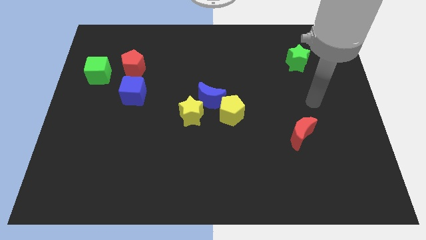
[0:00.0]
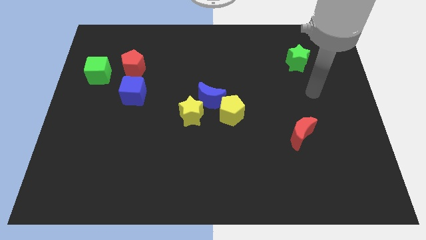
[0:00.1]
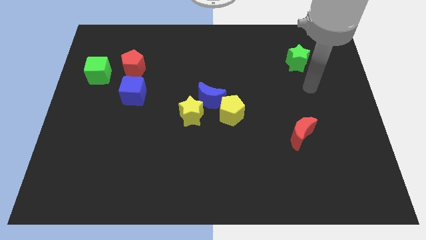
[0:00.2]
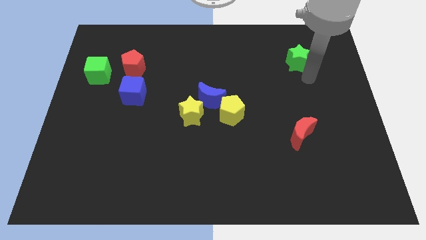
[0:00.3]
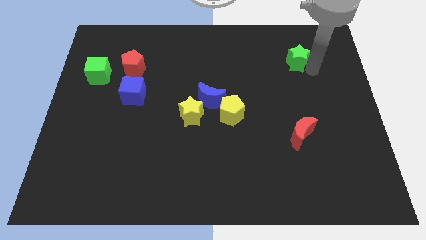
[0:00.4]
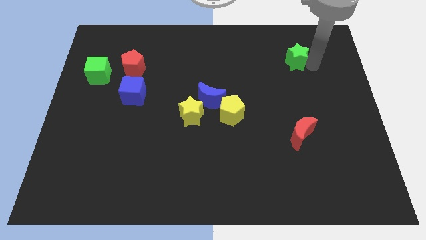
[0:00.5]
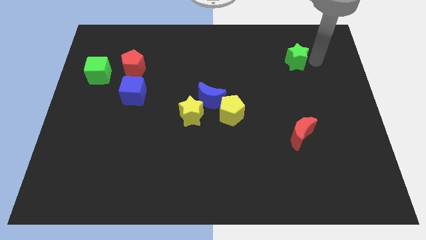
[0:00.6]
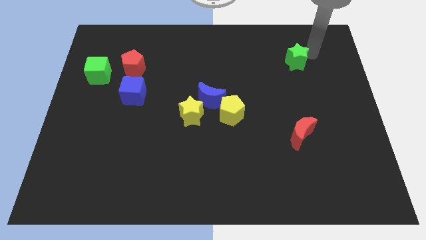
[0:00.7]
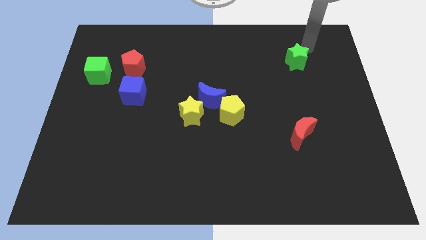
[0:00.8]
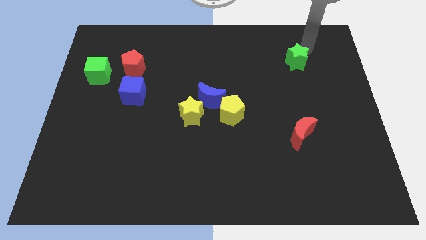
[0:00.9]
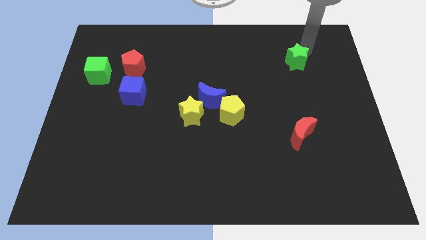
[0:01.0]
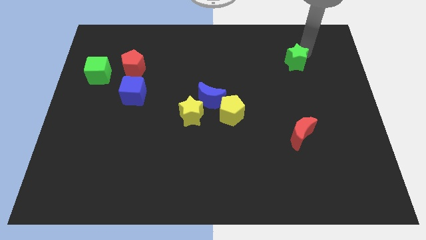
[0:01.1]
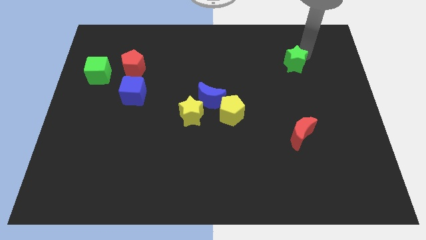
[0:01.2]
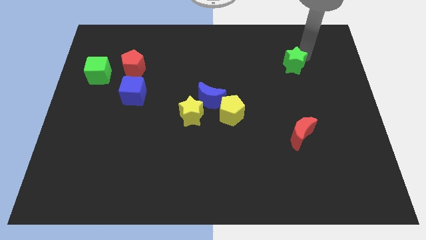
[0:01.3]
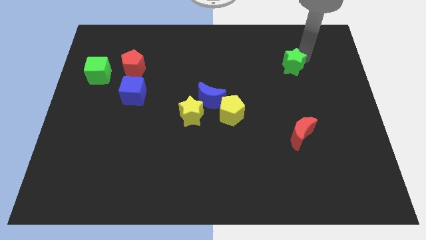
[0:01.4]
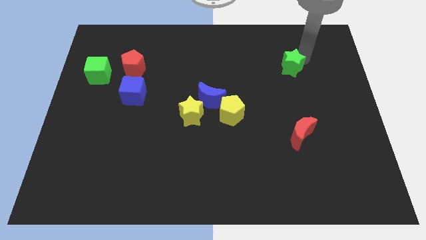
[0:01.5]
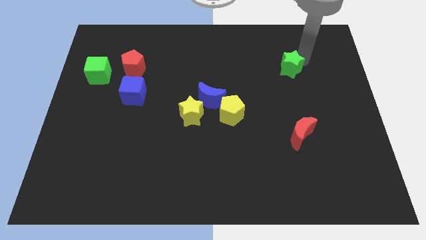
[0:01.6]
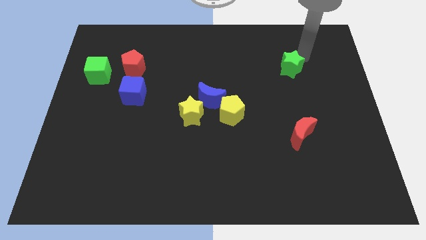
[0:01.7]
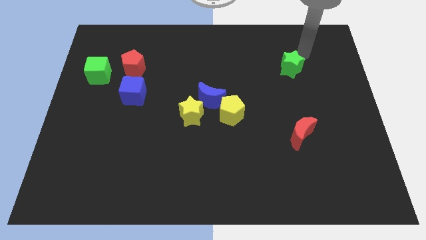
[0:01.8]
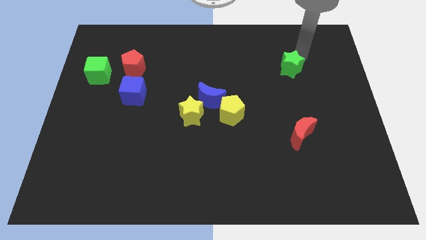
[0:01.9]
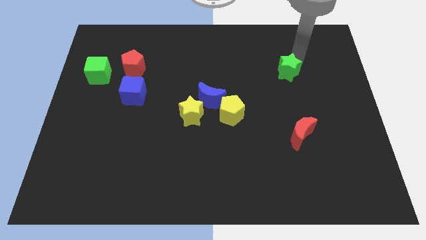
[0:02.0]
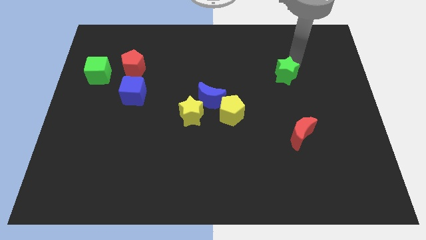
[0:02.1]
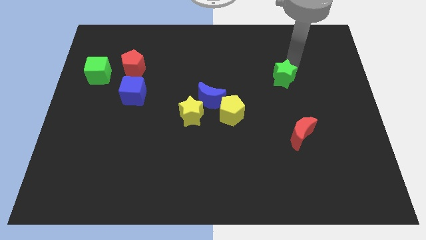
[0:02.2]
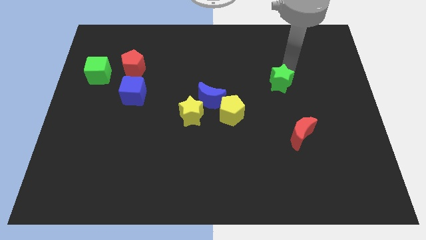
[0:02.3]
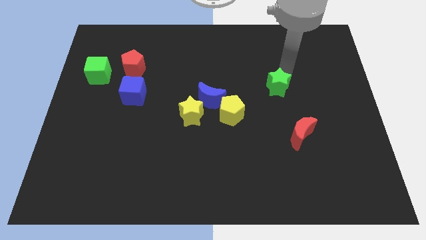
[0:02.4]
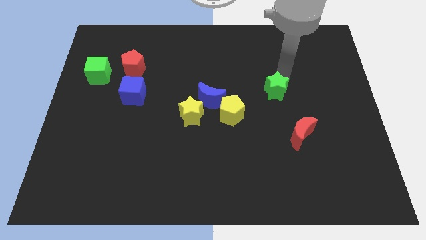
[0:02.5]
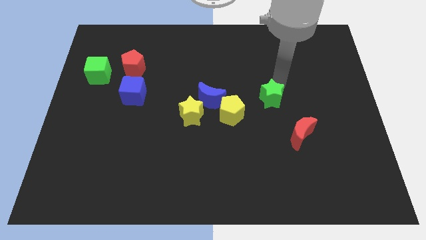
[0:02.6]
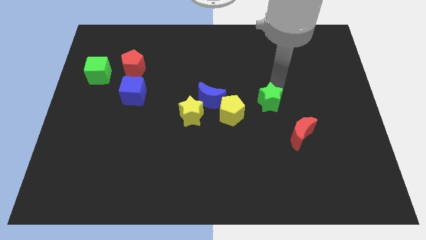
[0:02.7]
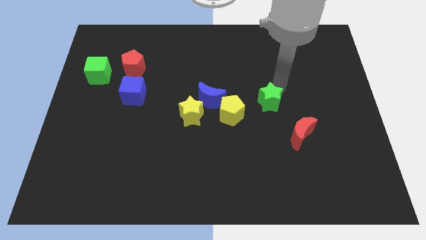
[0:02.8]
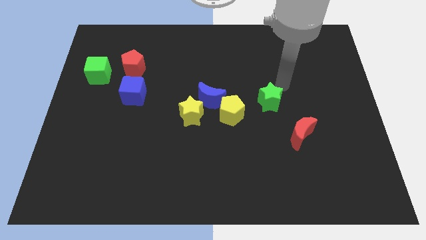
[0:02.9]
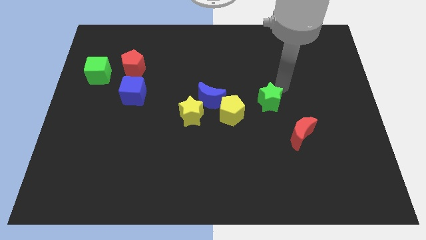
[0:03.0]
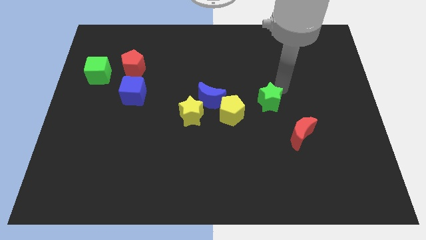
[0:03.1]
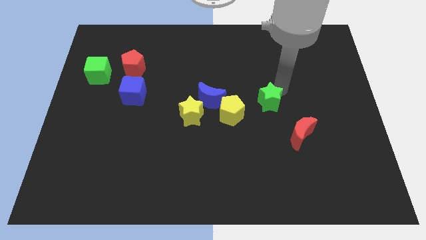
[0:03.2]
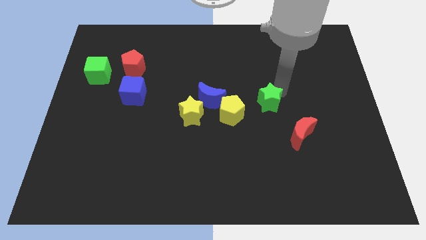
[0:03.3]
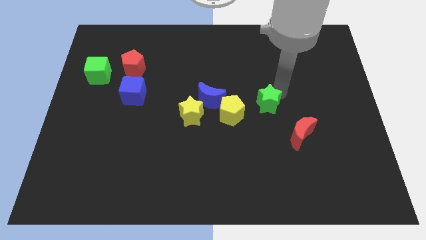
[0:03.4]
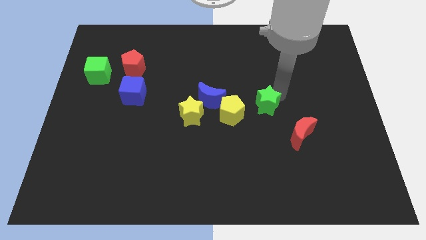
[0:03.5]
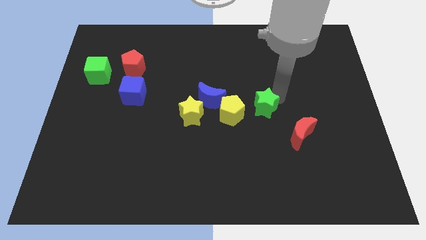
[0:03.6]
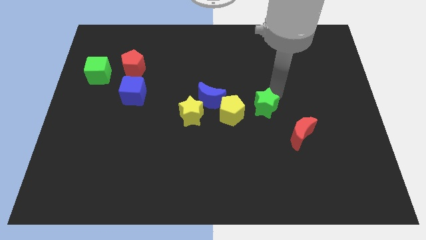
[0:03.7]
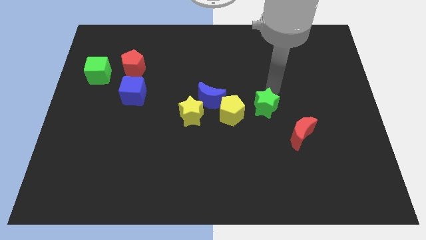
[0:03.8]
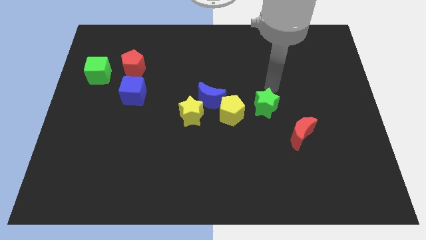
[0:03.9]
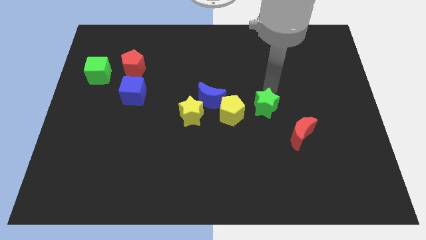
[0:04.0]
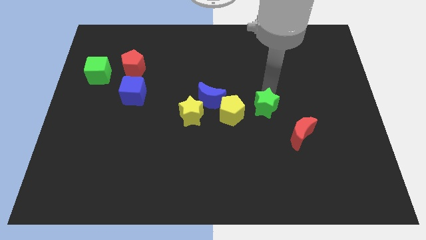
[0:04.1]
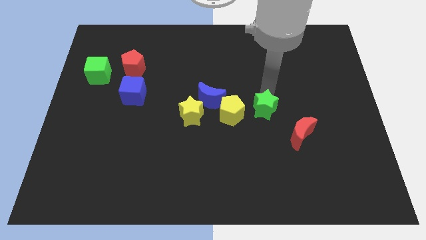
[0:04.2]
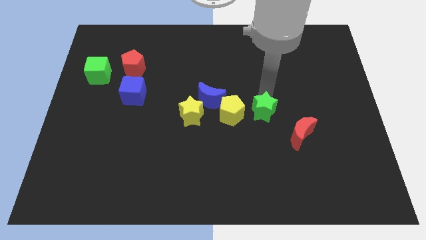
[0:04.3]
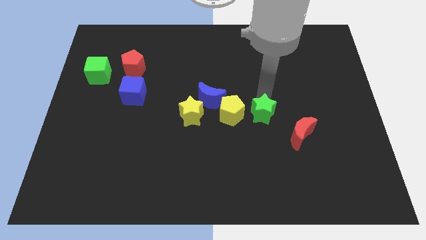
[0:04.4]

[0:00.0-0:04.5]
put the green star to the bottom right side of the yellow pentagon

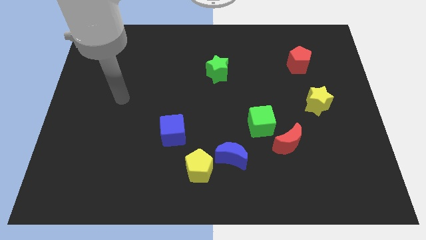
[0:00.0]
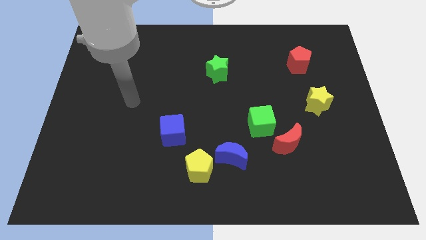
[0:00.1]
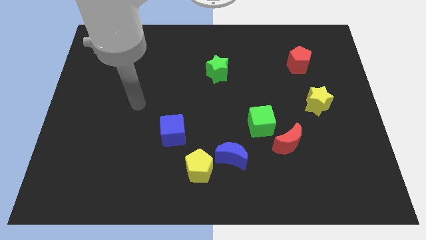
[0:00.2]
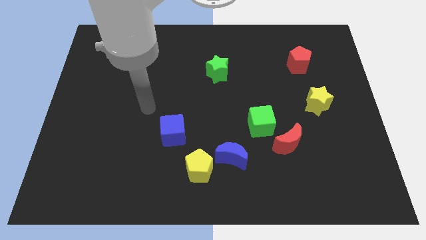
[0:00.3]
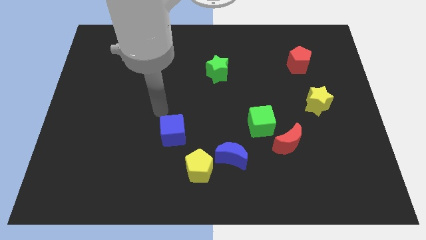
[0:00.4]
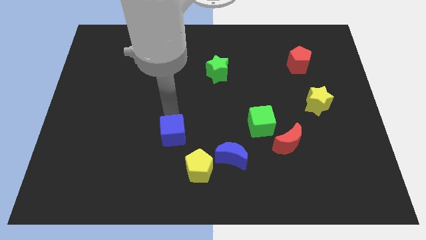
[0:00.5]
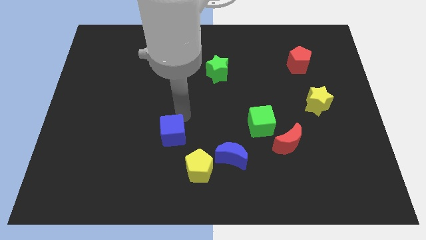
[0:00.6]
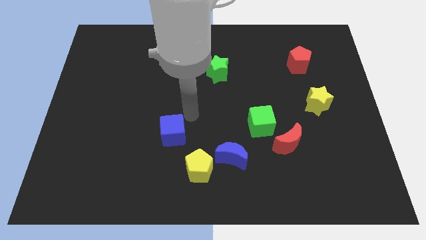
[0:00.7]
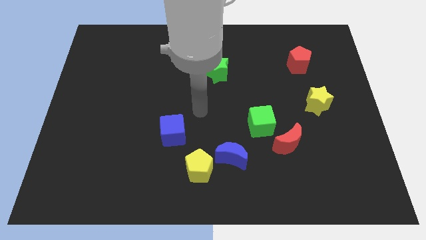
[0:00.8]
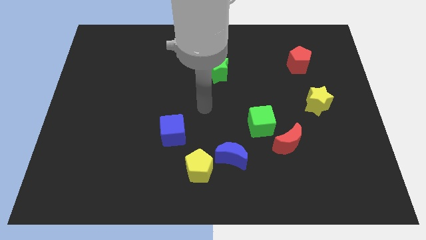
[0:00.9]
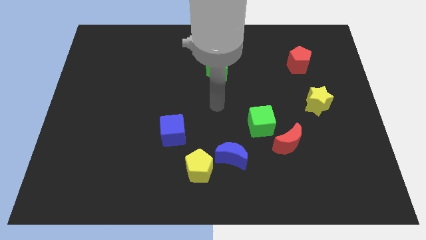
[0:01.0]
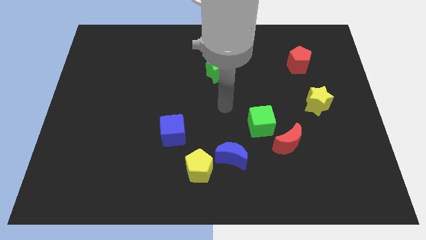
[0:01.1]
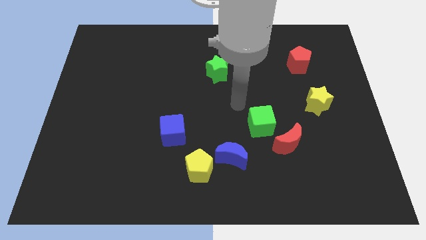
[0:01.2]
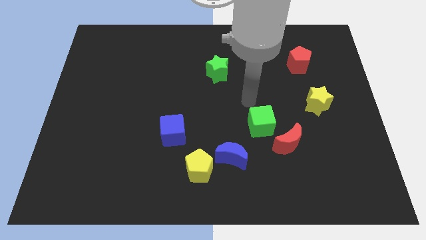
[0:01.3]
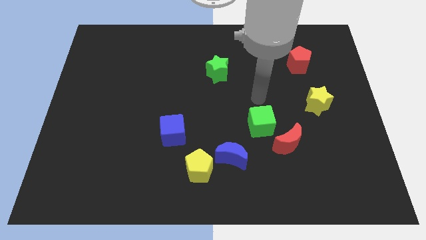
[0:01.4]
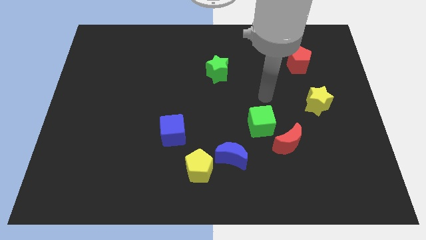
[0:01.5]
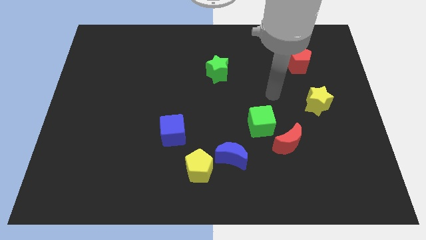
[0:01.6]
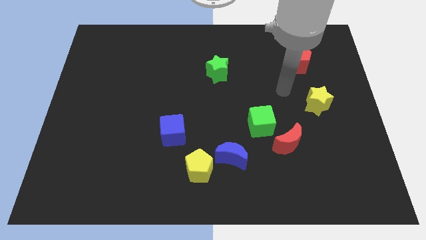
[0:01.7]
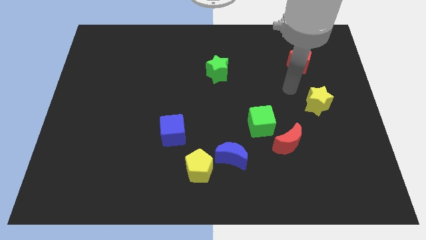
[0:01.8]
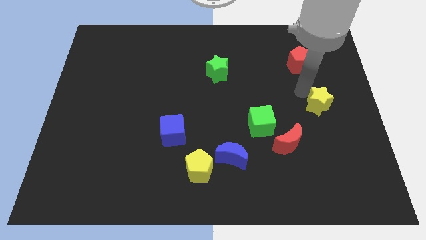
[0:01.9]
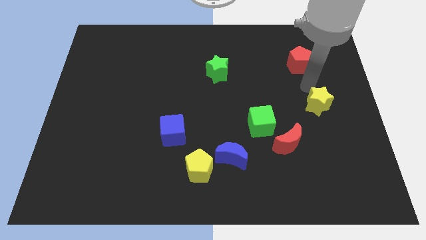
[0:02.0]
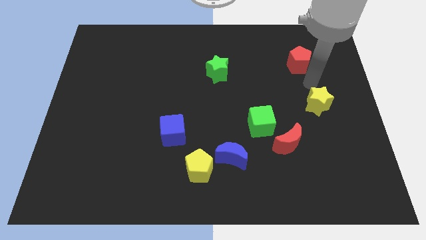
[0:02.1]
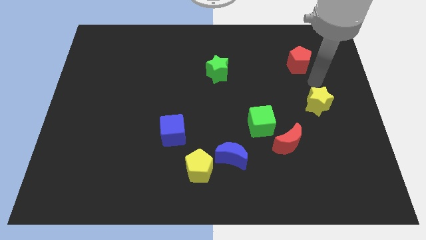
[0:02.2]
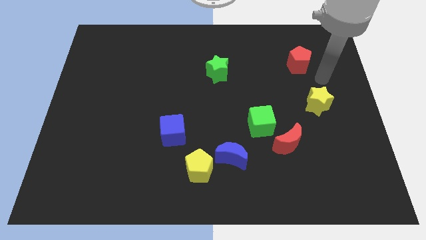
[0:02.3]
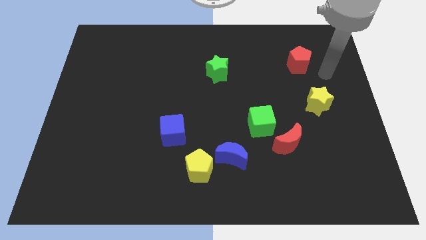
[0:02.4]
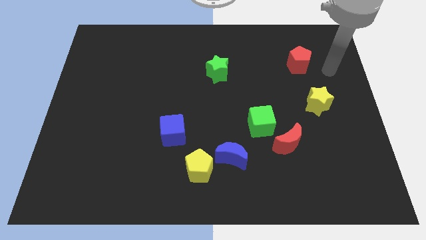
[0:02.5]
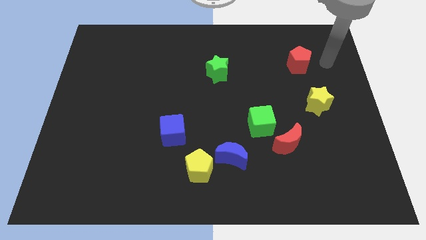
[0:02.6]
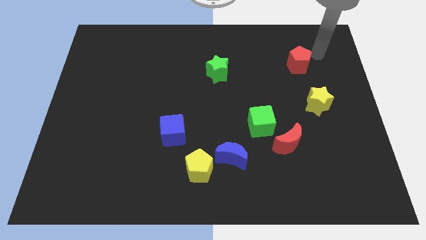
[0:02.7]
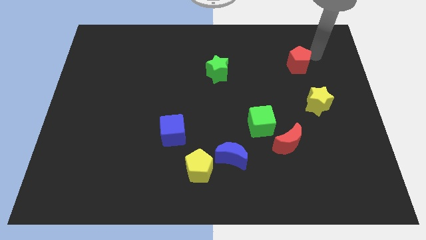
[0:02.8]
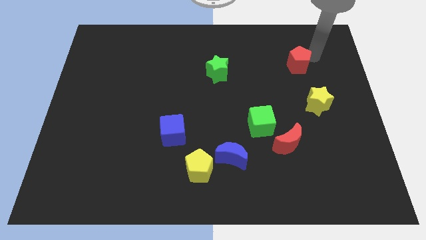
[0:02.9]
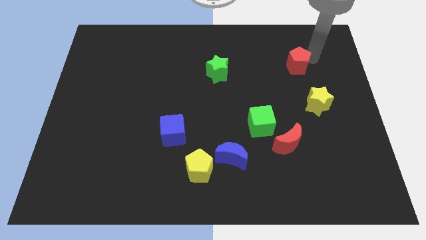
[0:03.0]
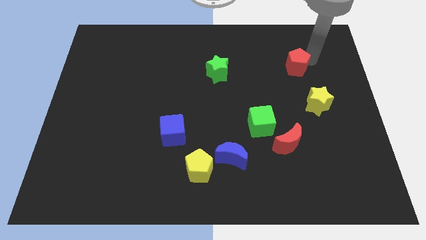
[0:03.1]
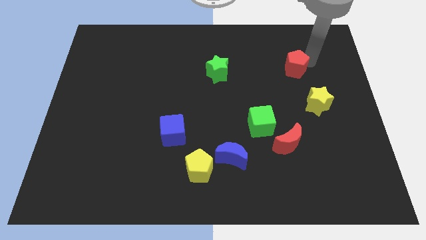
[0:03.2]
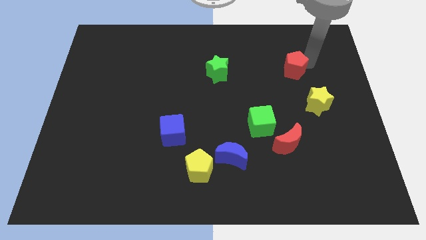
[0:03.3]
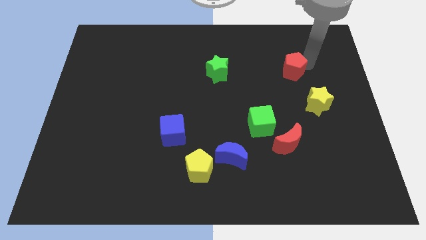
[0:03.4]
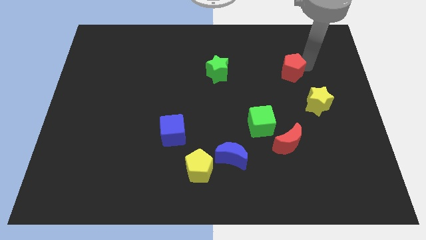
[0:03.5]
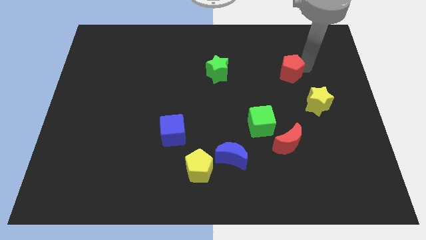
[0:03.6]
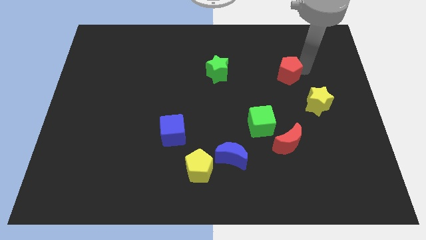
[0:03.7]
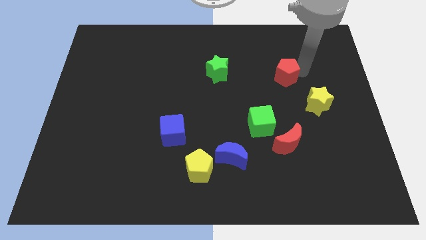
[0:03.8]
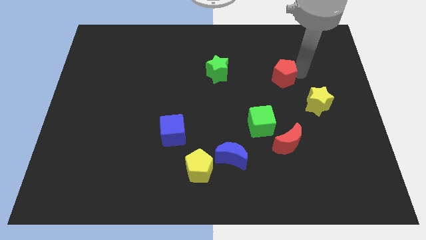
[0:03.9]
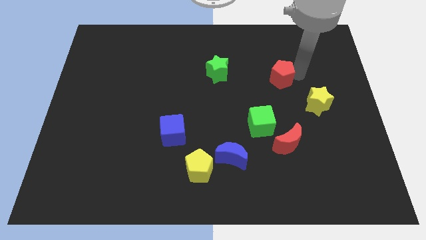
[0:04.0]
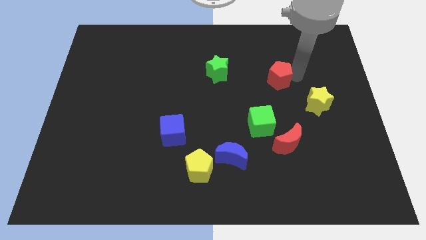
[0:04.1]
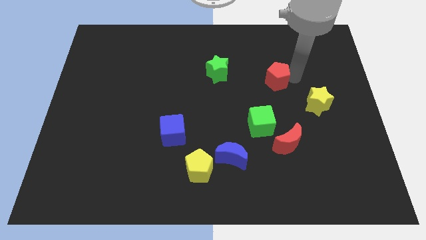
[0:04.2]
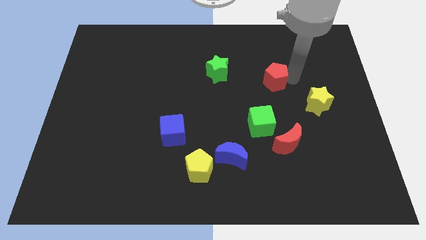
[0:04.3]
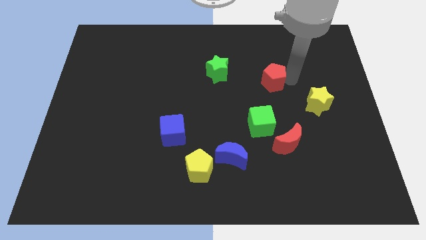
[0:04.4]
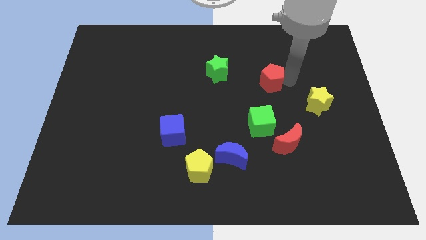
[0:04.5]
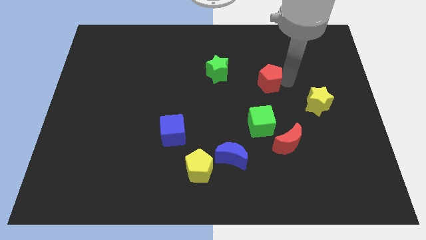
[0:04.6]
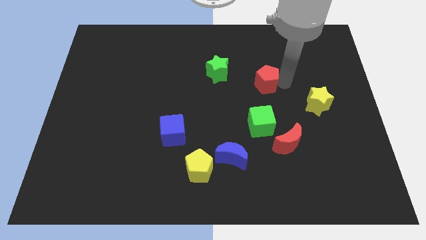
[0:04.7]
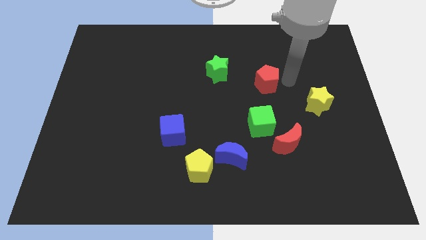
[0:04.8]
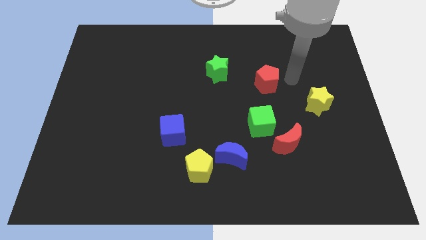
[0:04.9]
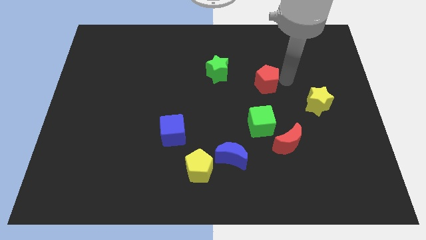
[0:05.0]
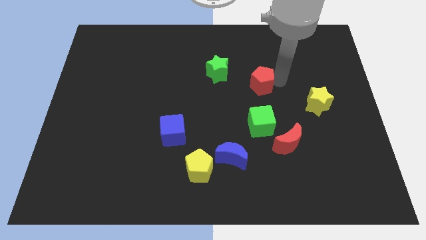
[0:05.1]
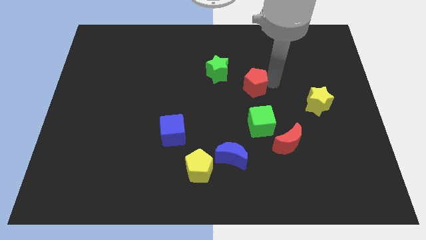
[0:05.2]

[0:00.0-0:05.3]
move the red pentagon to the bottom right side of the green star
